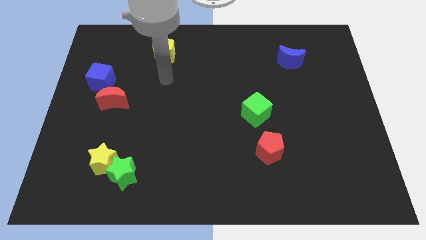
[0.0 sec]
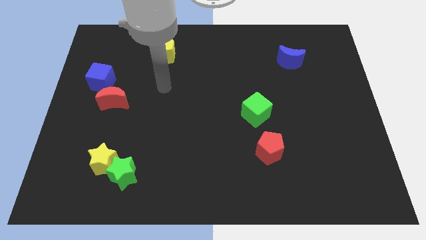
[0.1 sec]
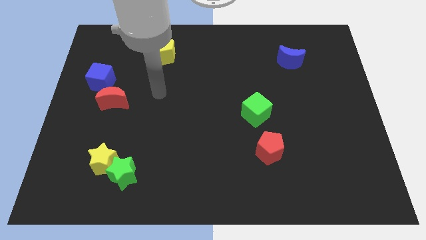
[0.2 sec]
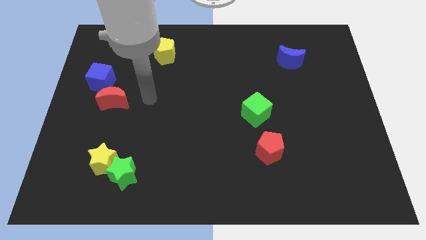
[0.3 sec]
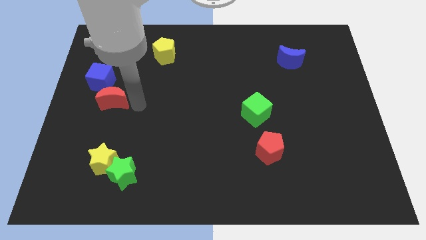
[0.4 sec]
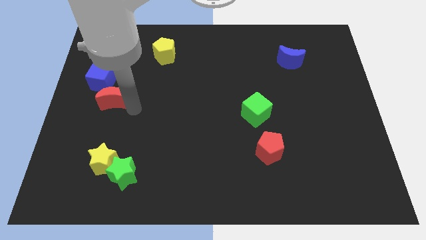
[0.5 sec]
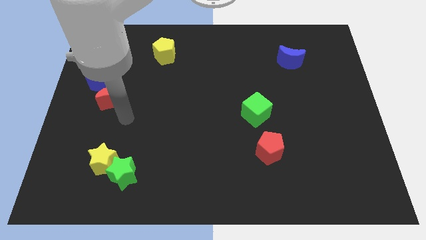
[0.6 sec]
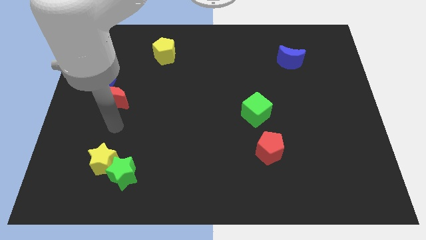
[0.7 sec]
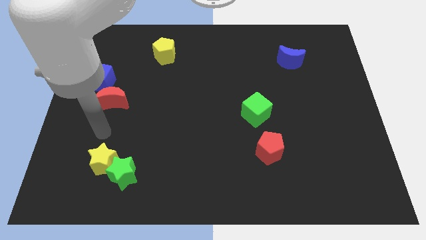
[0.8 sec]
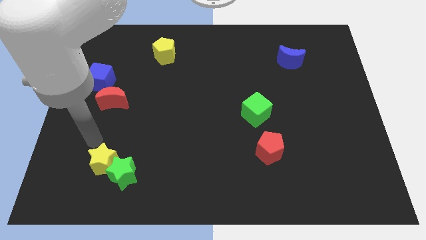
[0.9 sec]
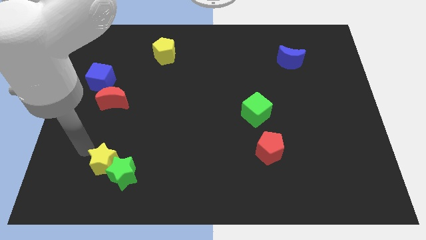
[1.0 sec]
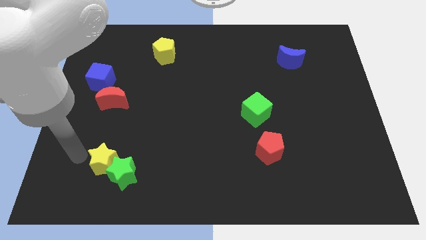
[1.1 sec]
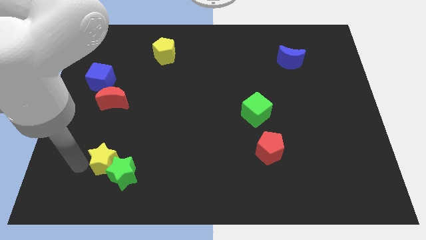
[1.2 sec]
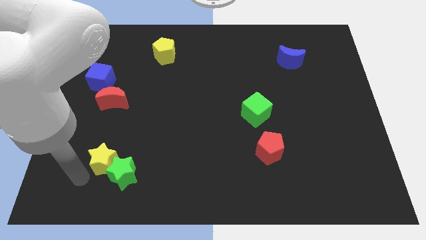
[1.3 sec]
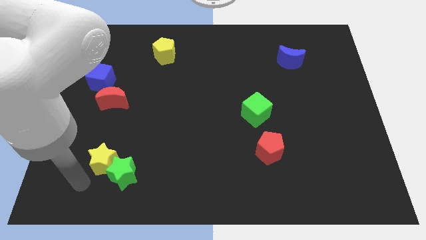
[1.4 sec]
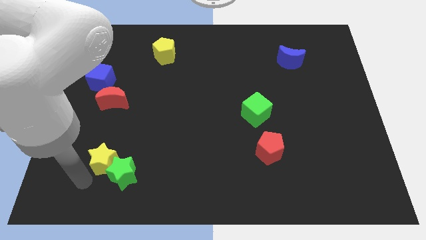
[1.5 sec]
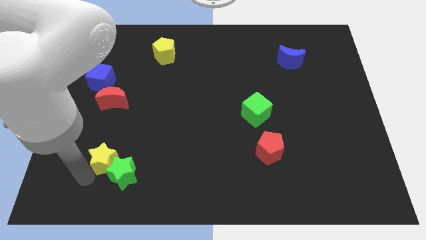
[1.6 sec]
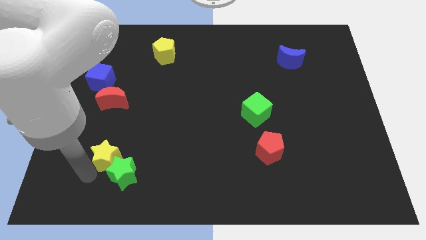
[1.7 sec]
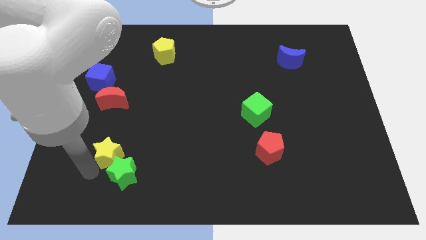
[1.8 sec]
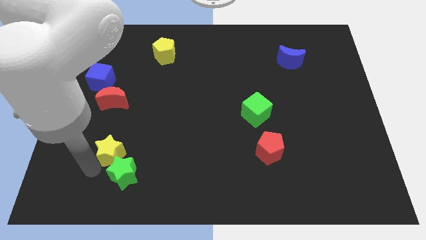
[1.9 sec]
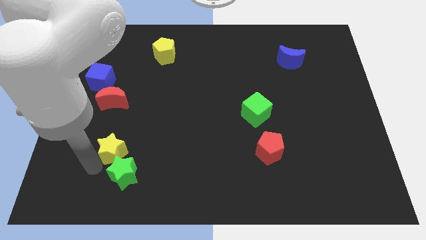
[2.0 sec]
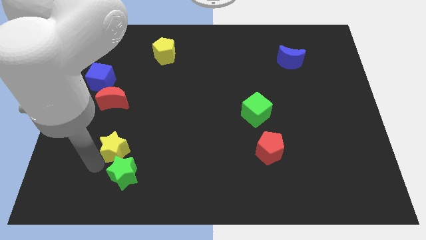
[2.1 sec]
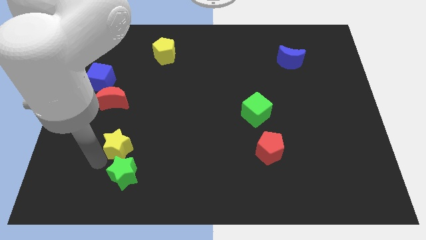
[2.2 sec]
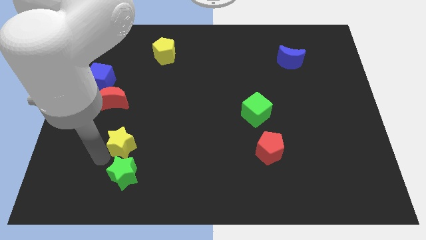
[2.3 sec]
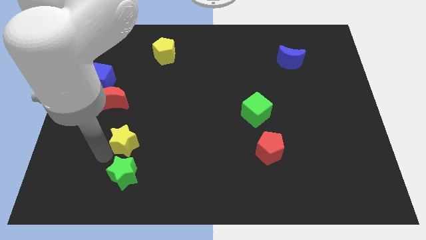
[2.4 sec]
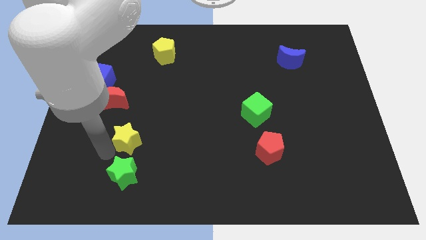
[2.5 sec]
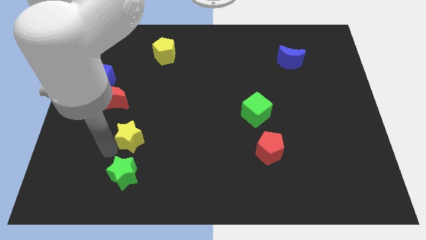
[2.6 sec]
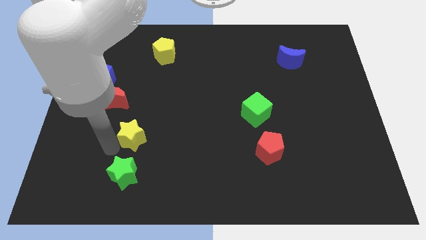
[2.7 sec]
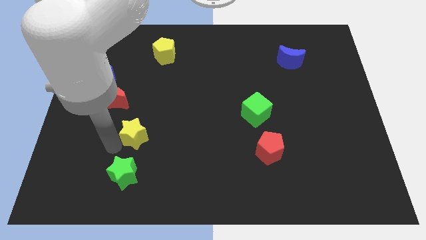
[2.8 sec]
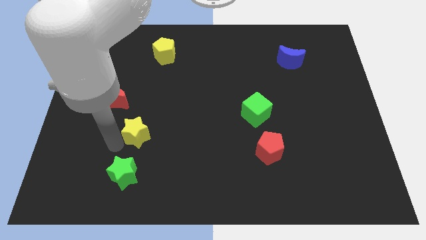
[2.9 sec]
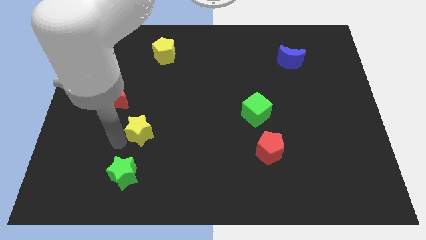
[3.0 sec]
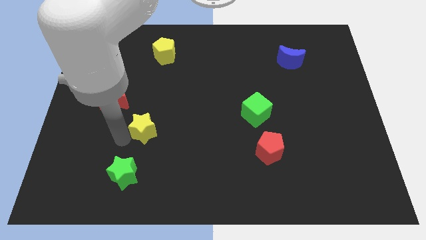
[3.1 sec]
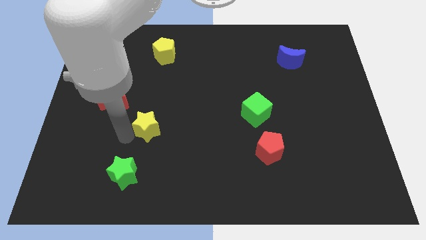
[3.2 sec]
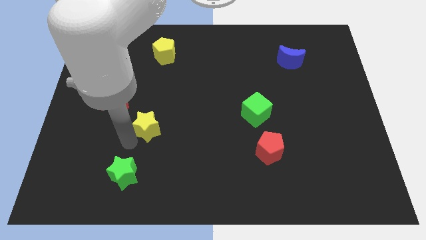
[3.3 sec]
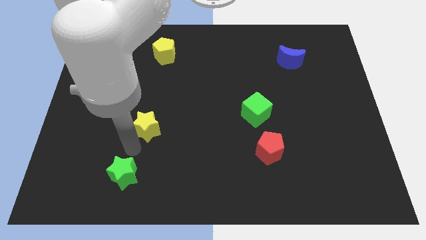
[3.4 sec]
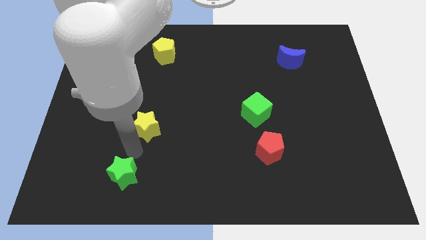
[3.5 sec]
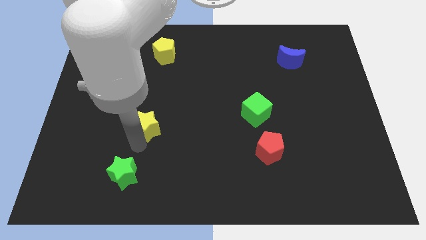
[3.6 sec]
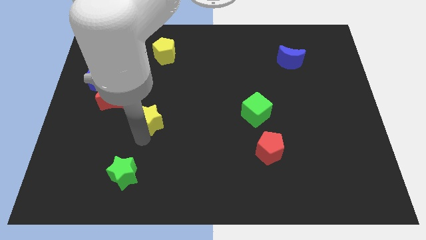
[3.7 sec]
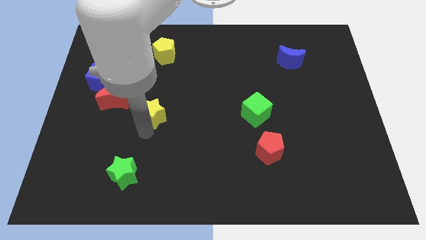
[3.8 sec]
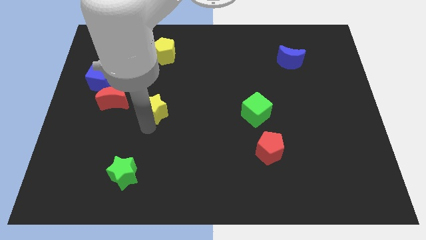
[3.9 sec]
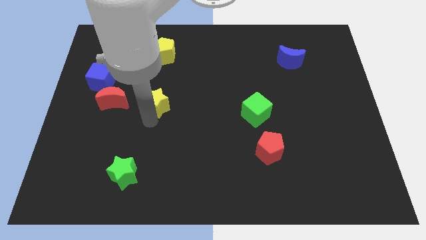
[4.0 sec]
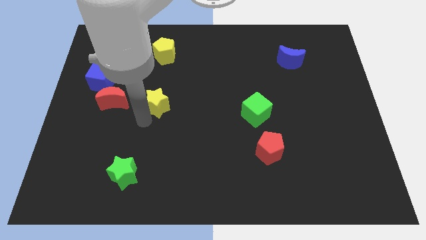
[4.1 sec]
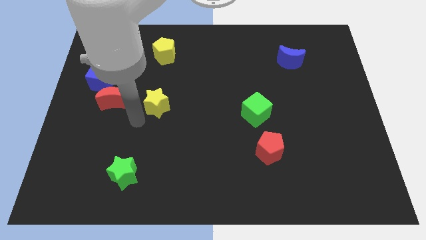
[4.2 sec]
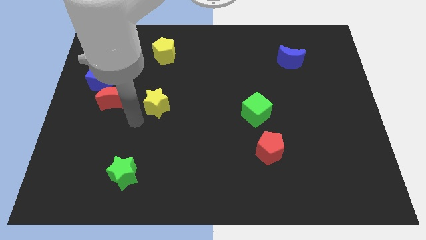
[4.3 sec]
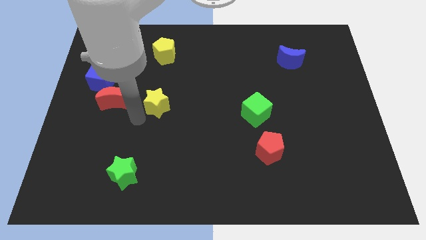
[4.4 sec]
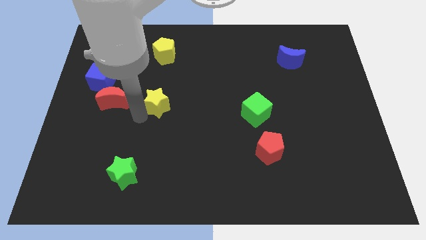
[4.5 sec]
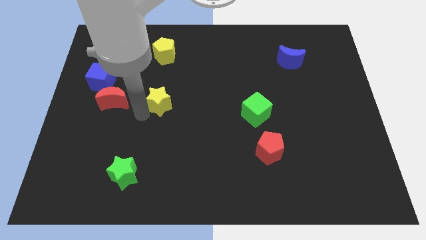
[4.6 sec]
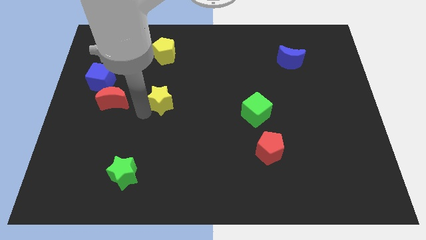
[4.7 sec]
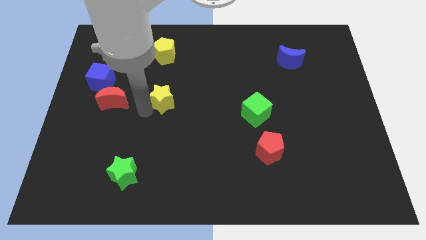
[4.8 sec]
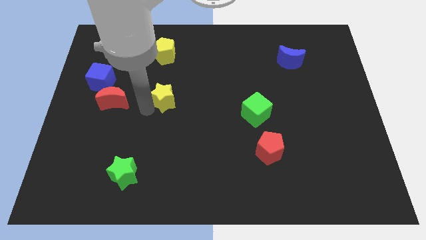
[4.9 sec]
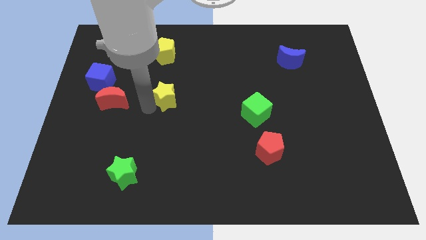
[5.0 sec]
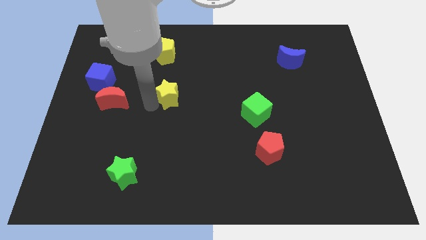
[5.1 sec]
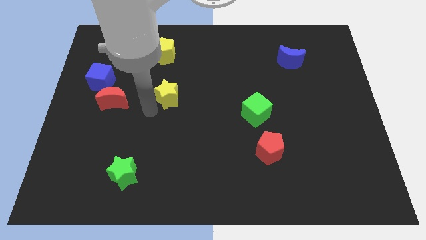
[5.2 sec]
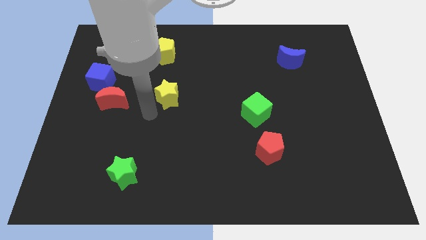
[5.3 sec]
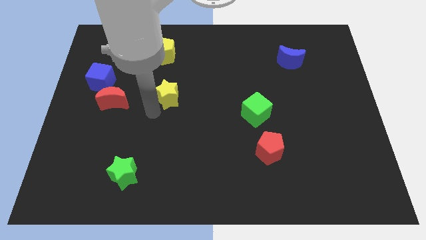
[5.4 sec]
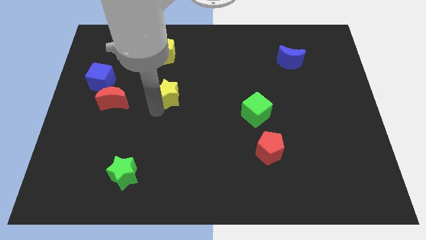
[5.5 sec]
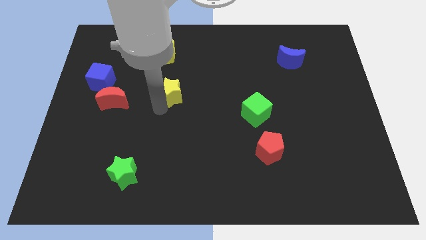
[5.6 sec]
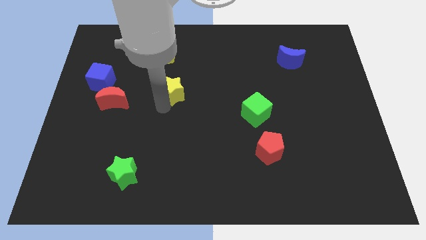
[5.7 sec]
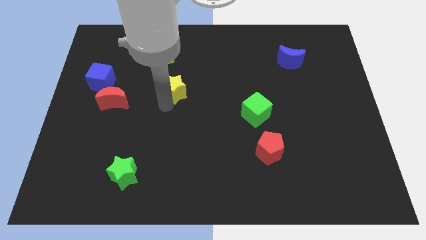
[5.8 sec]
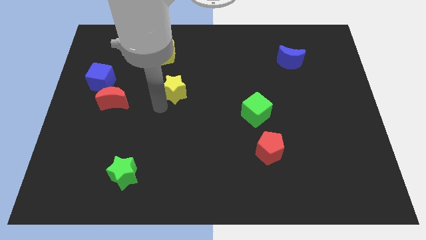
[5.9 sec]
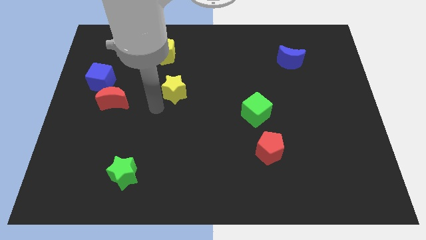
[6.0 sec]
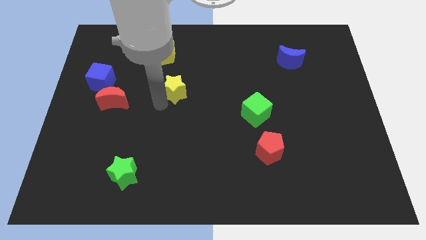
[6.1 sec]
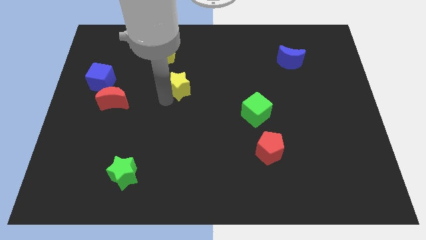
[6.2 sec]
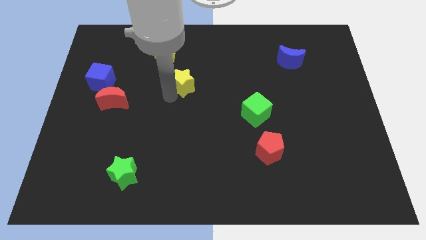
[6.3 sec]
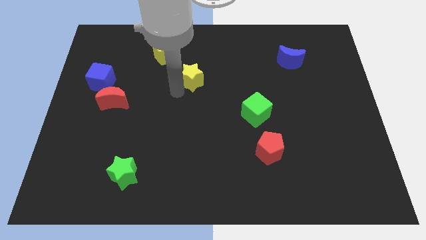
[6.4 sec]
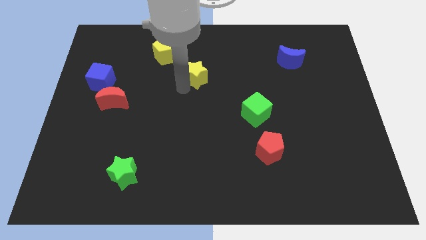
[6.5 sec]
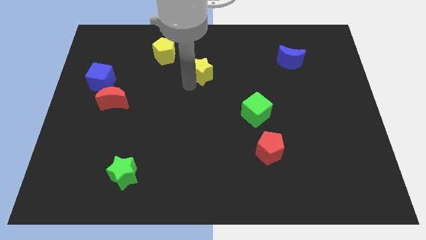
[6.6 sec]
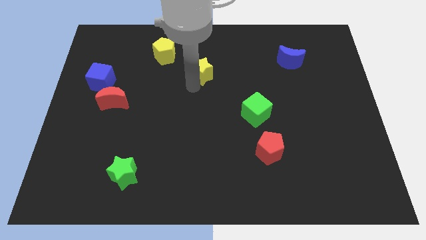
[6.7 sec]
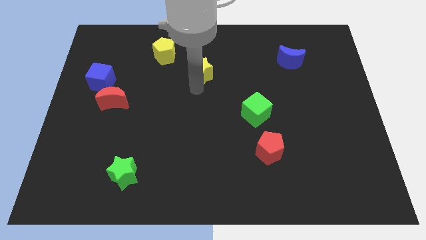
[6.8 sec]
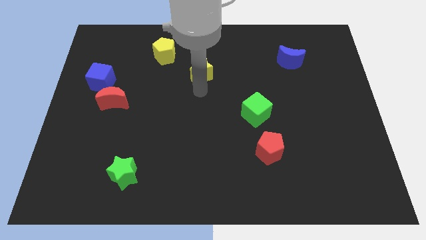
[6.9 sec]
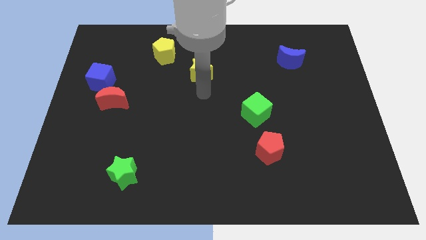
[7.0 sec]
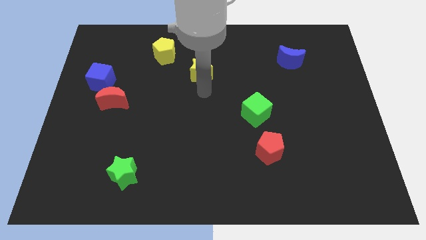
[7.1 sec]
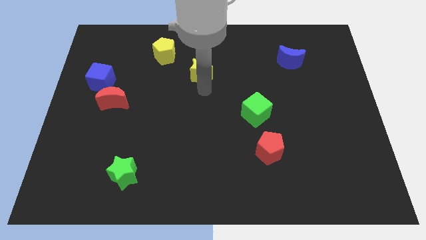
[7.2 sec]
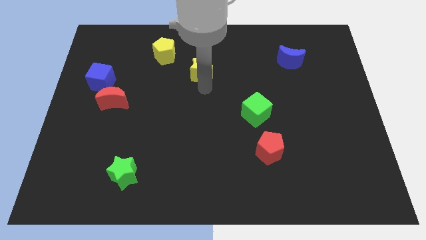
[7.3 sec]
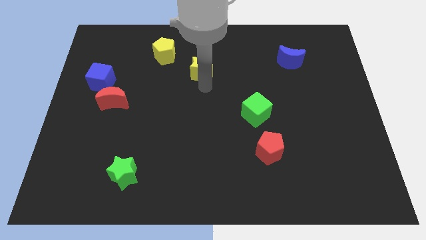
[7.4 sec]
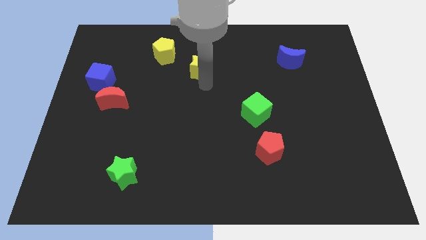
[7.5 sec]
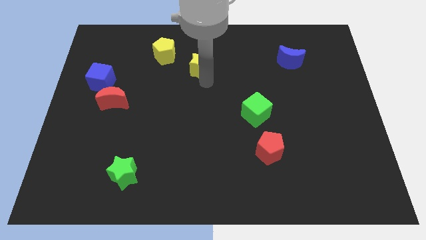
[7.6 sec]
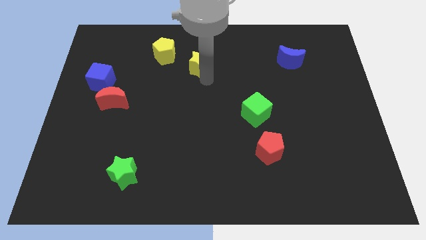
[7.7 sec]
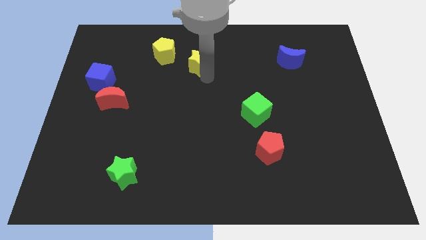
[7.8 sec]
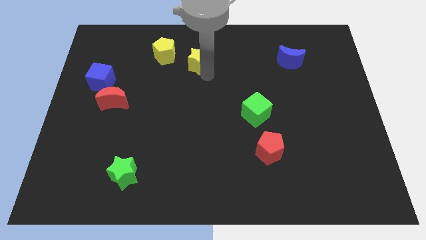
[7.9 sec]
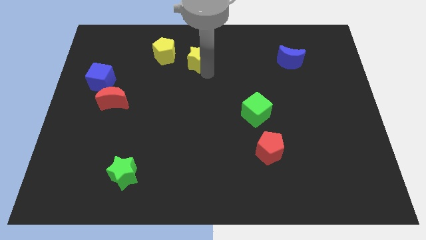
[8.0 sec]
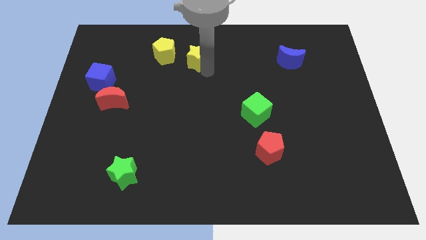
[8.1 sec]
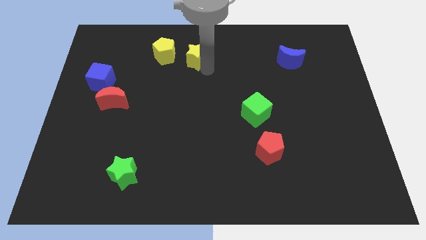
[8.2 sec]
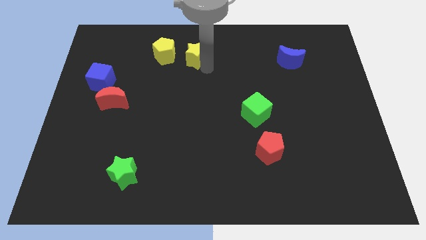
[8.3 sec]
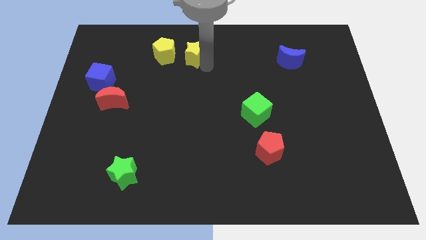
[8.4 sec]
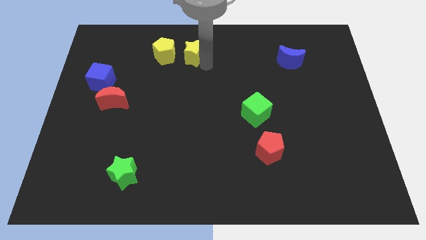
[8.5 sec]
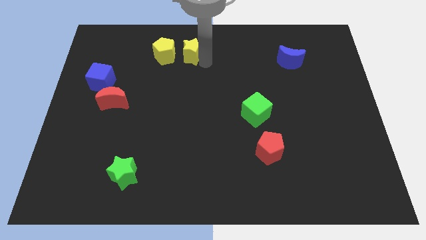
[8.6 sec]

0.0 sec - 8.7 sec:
push the yellow star to the top

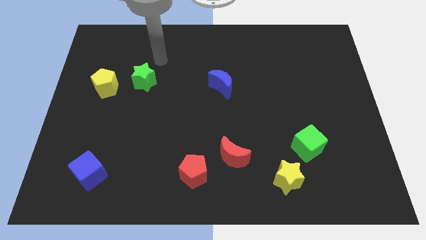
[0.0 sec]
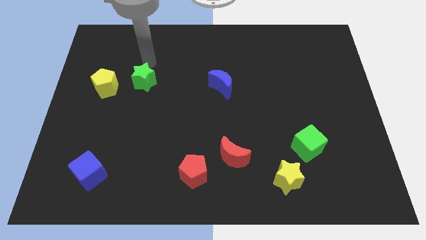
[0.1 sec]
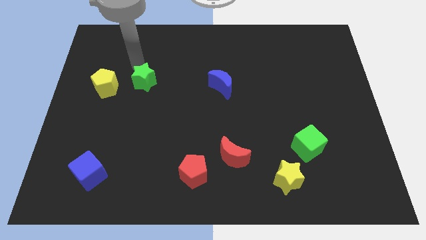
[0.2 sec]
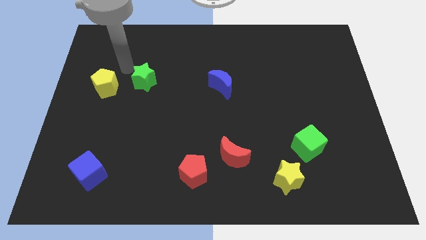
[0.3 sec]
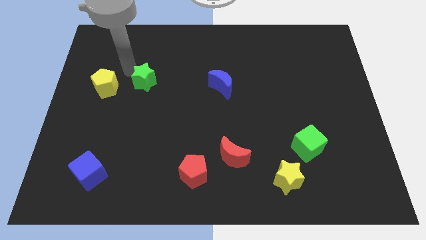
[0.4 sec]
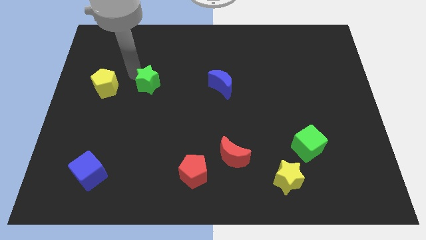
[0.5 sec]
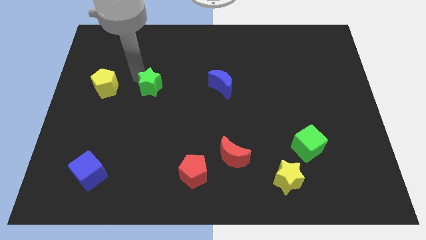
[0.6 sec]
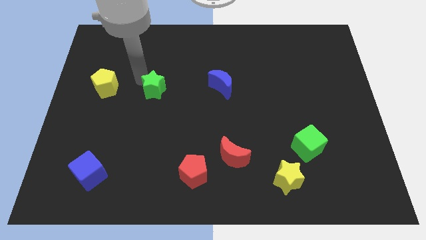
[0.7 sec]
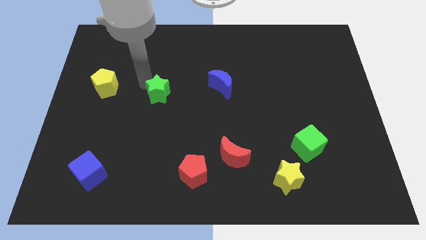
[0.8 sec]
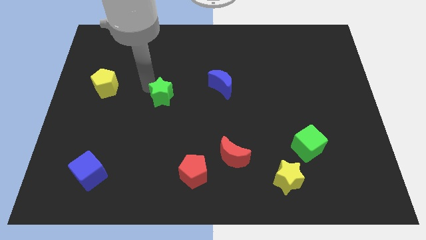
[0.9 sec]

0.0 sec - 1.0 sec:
slide the green star to the middle of the board
